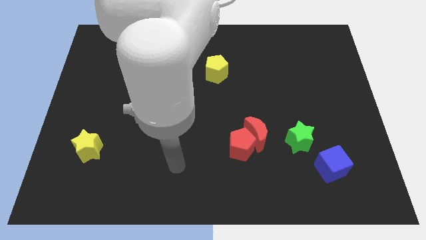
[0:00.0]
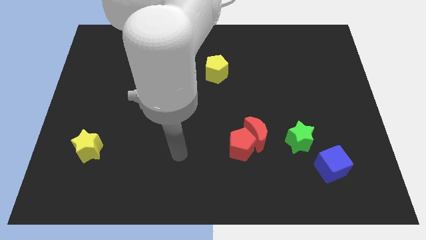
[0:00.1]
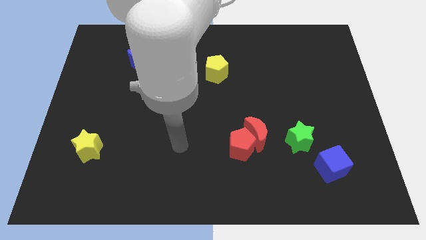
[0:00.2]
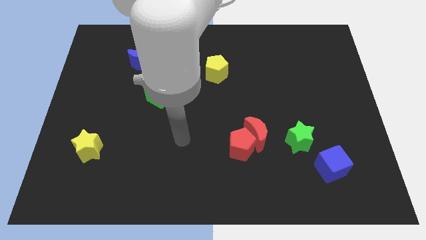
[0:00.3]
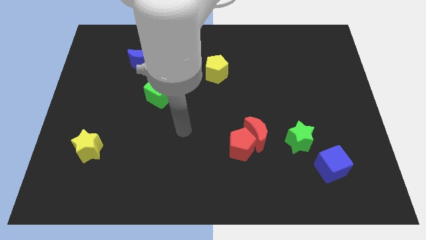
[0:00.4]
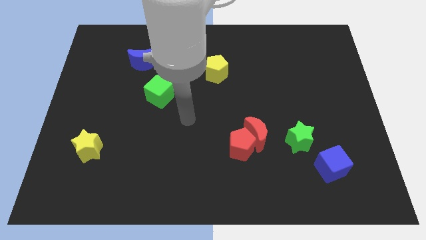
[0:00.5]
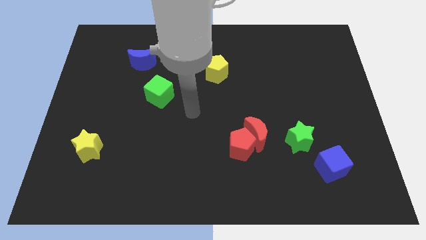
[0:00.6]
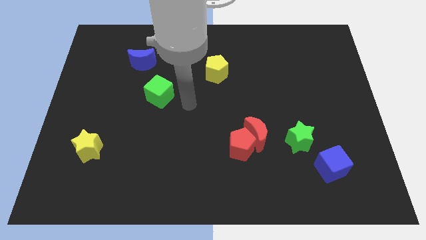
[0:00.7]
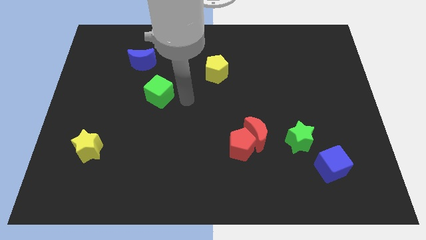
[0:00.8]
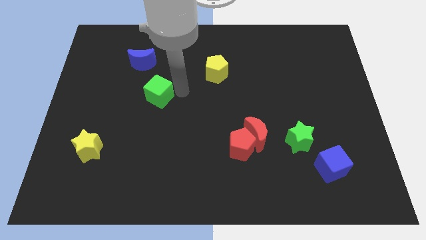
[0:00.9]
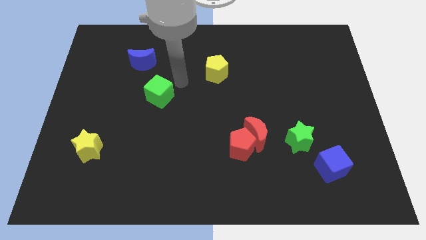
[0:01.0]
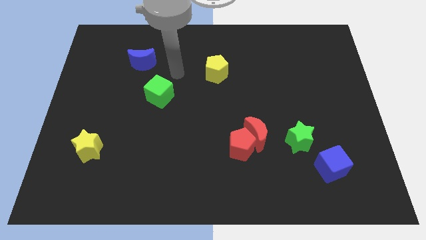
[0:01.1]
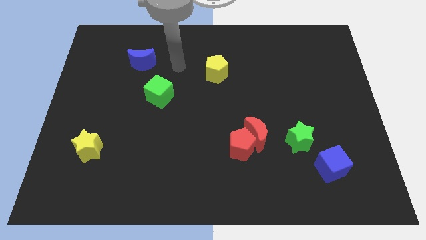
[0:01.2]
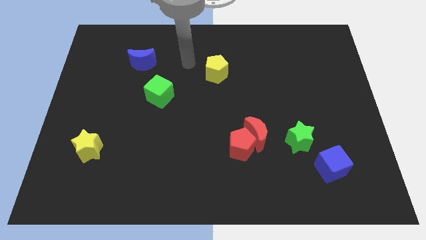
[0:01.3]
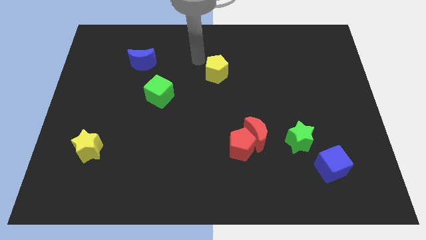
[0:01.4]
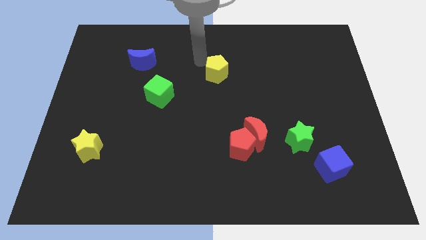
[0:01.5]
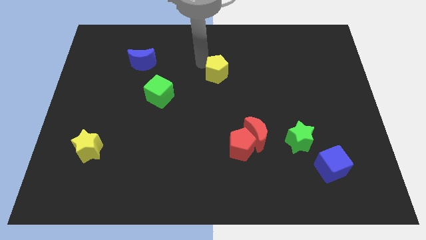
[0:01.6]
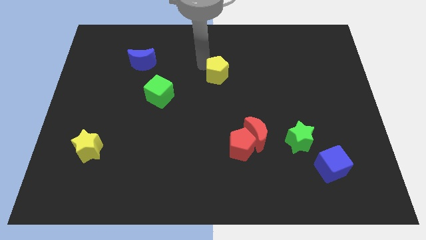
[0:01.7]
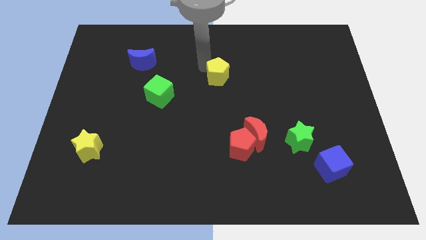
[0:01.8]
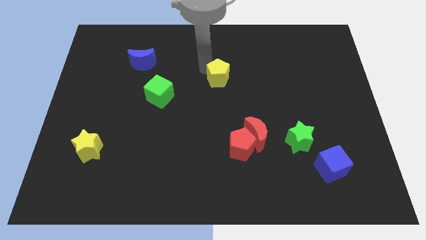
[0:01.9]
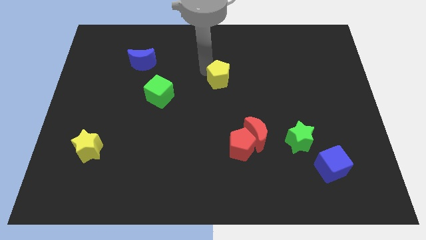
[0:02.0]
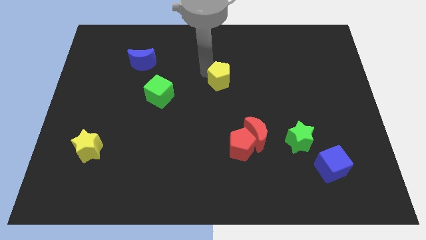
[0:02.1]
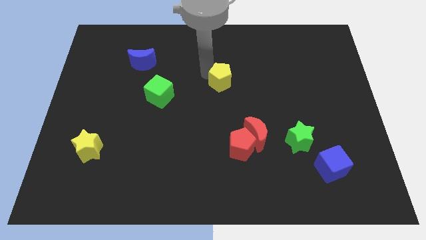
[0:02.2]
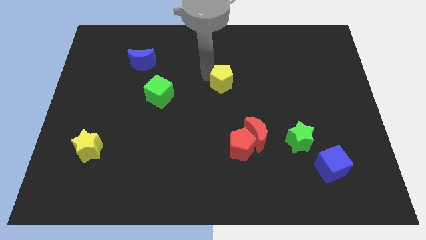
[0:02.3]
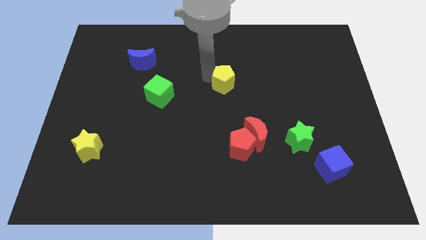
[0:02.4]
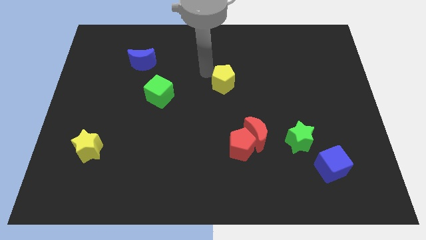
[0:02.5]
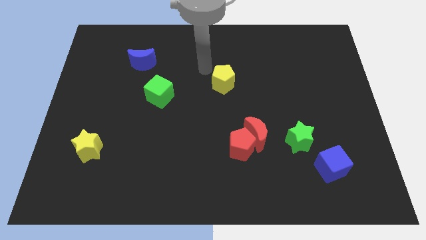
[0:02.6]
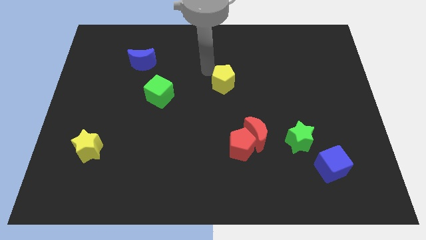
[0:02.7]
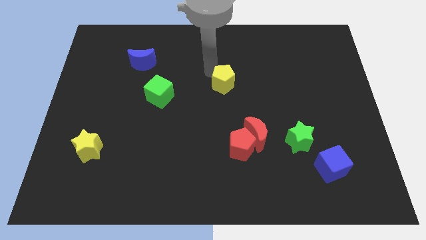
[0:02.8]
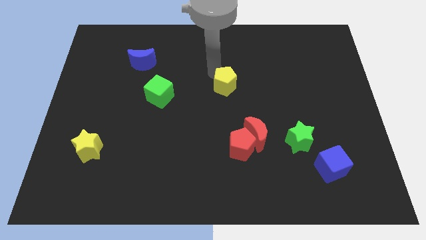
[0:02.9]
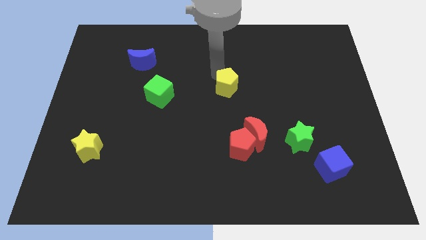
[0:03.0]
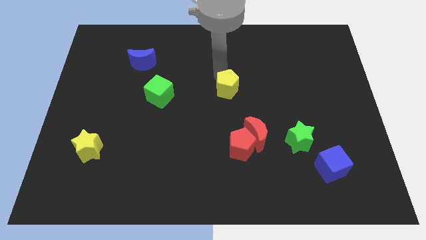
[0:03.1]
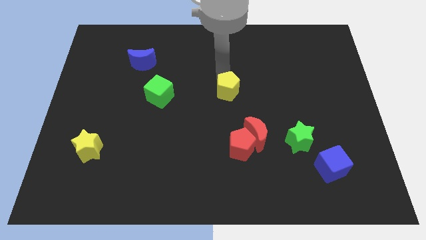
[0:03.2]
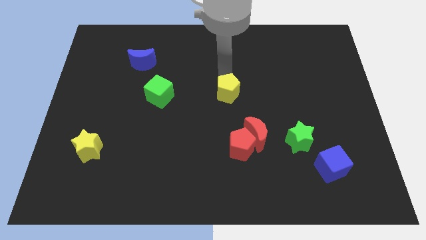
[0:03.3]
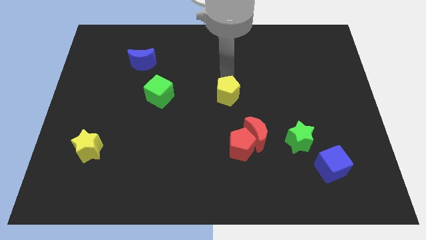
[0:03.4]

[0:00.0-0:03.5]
move the yellow pentagon slightly down and then to the right

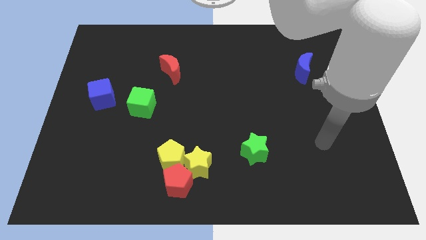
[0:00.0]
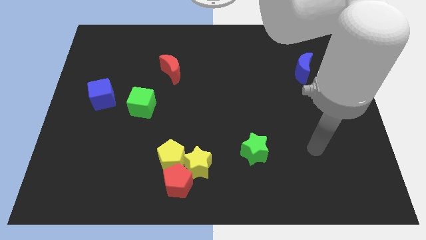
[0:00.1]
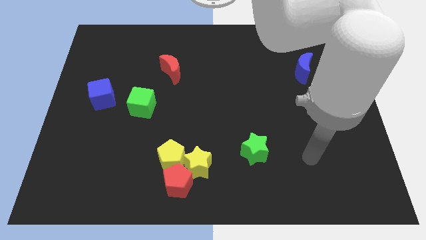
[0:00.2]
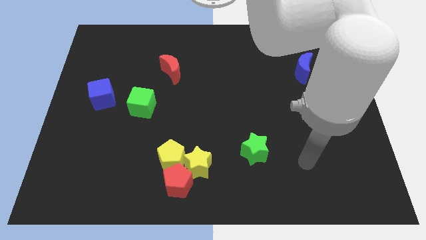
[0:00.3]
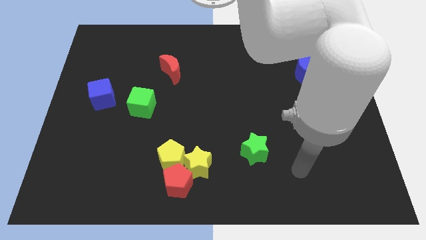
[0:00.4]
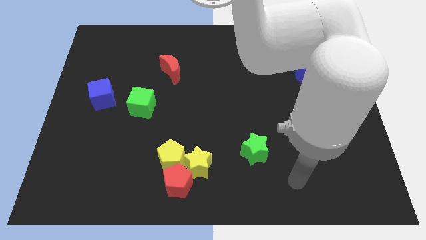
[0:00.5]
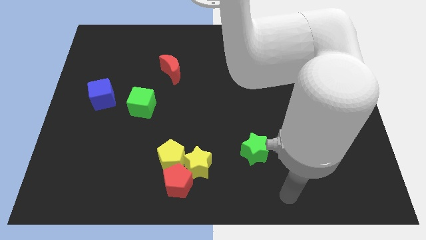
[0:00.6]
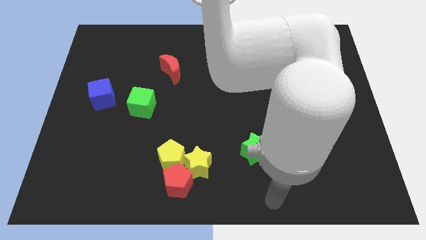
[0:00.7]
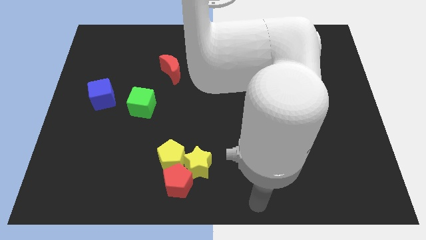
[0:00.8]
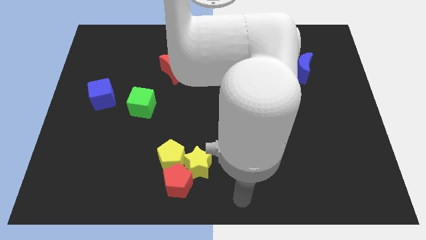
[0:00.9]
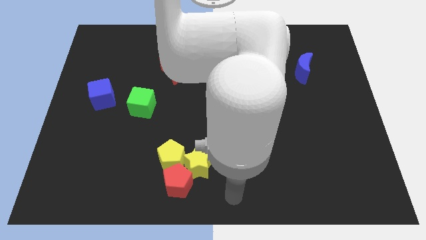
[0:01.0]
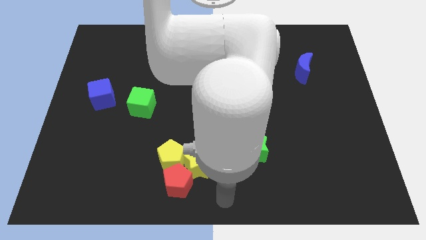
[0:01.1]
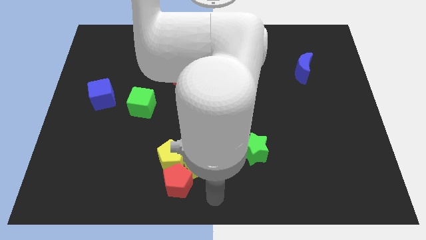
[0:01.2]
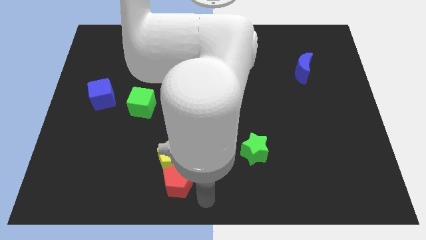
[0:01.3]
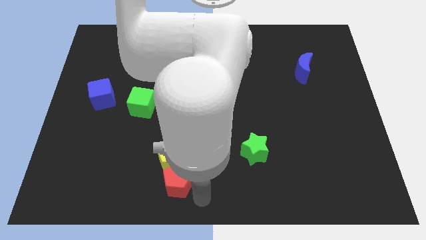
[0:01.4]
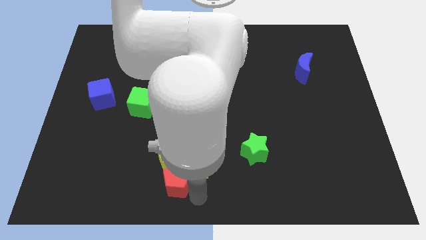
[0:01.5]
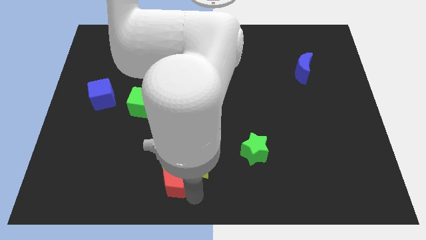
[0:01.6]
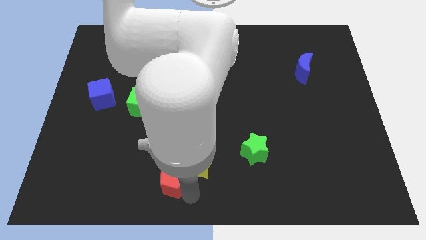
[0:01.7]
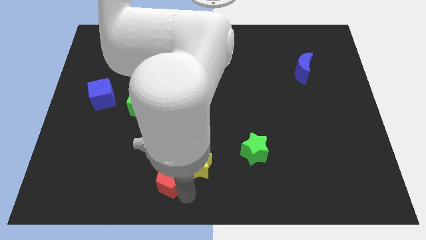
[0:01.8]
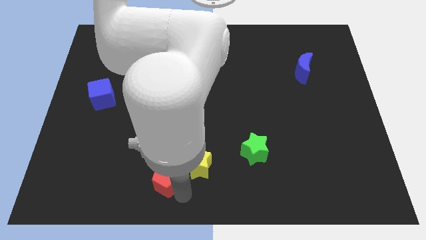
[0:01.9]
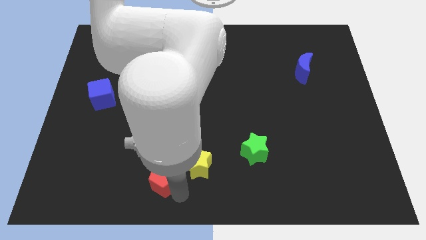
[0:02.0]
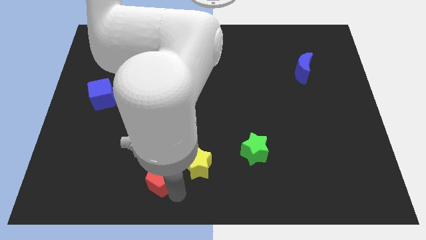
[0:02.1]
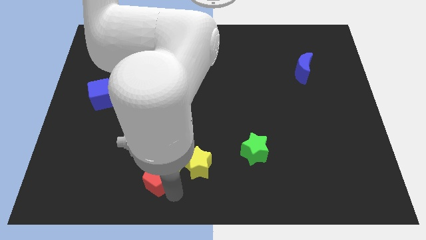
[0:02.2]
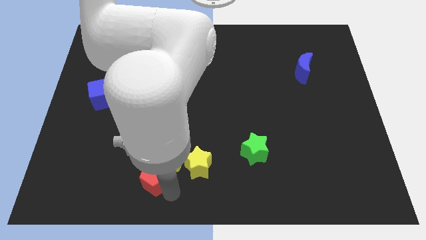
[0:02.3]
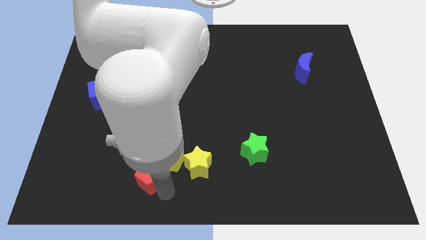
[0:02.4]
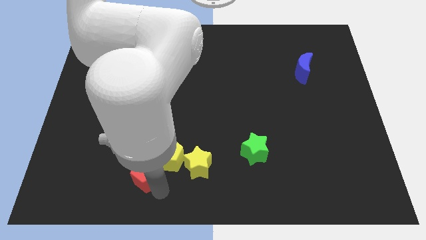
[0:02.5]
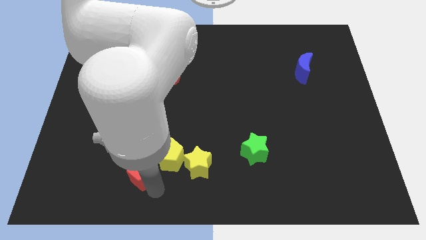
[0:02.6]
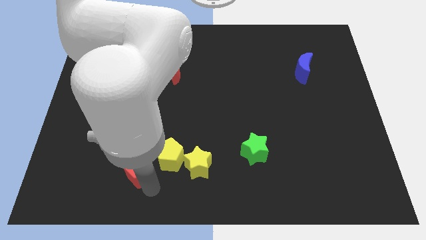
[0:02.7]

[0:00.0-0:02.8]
slightly slide the red pentagon diagonally up and to the left

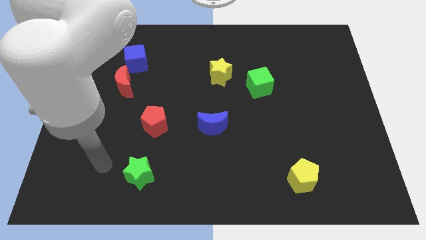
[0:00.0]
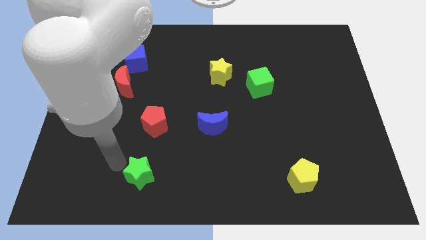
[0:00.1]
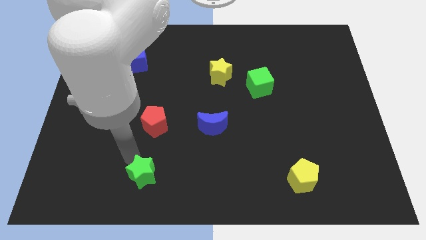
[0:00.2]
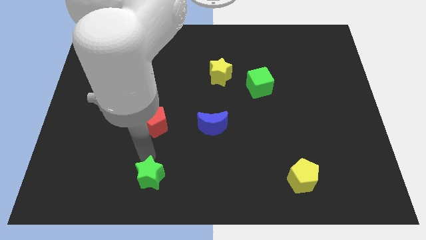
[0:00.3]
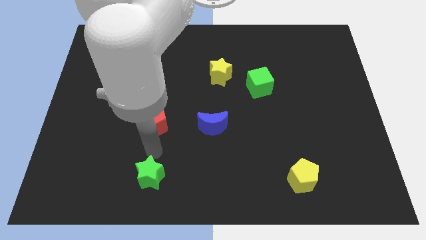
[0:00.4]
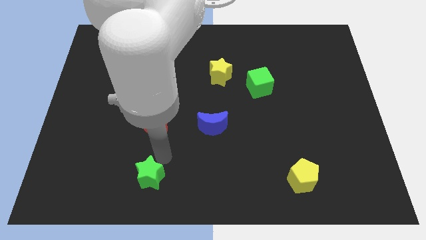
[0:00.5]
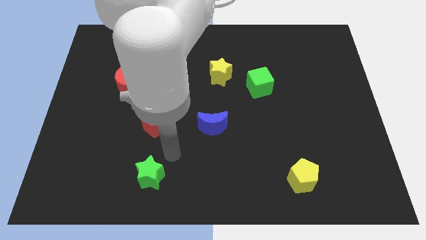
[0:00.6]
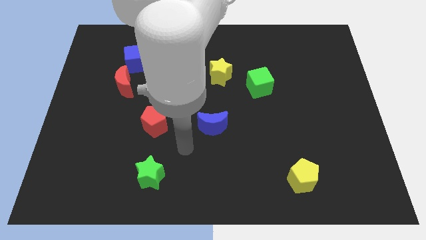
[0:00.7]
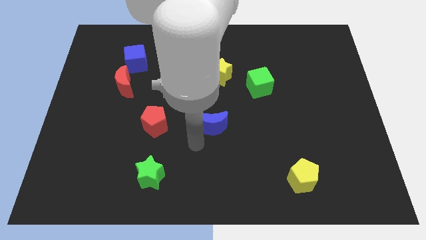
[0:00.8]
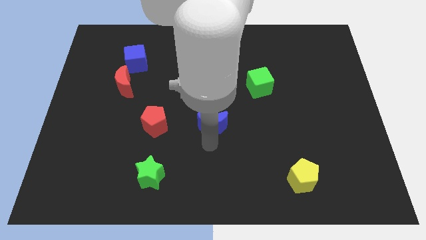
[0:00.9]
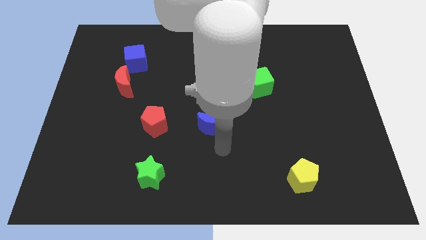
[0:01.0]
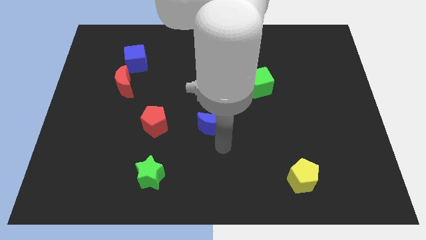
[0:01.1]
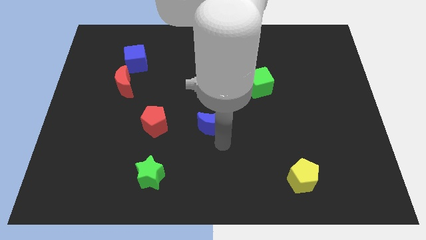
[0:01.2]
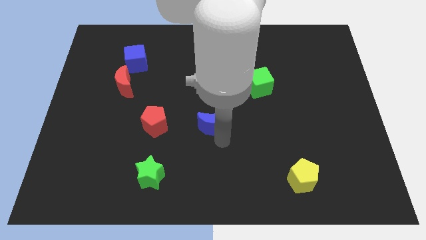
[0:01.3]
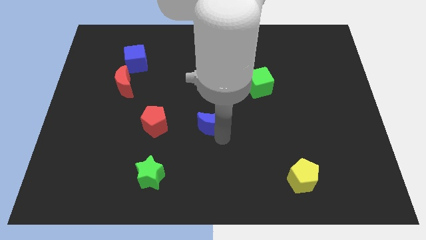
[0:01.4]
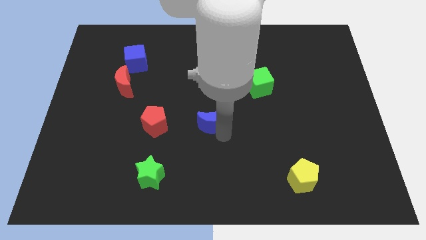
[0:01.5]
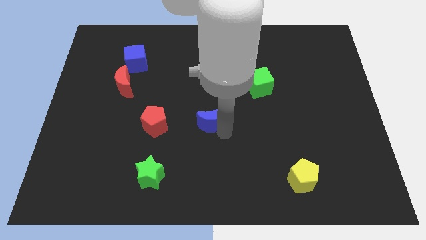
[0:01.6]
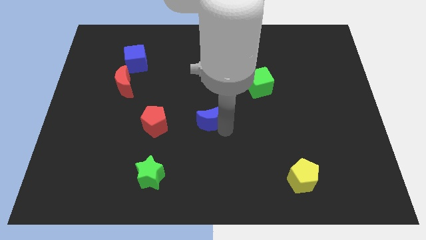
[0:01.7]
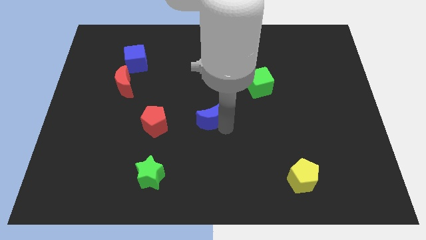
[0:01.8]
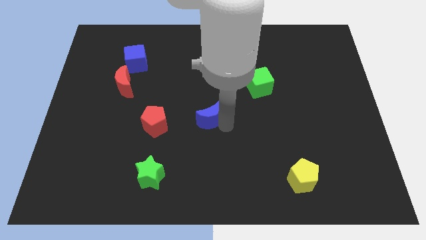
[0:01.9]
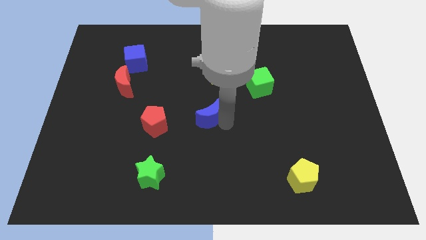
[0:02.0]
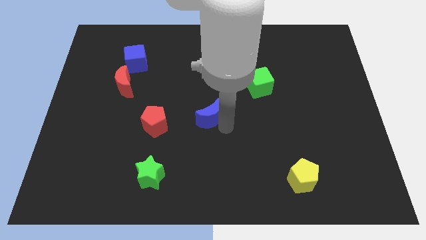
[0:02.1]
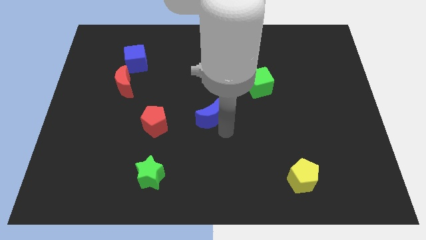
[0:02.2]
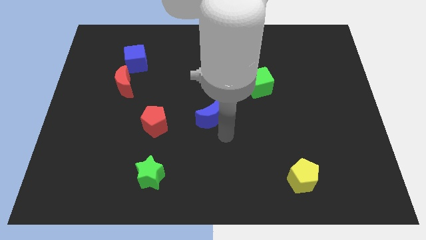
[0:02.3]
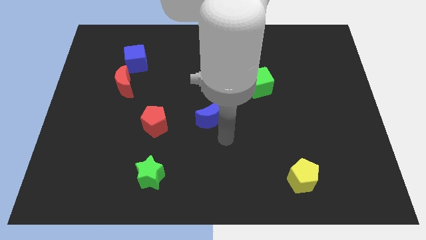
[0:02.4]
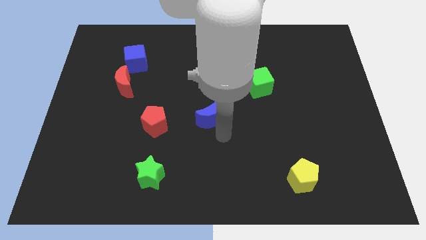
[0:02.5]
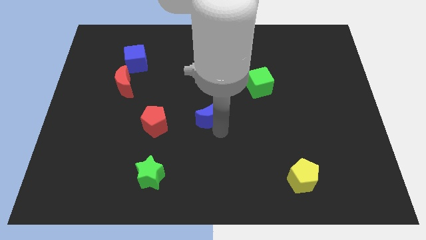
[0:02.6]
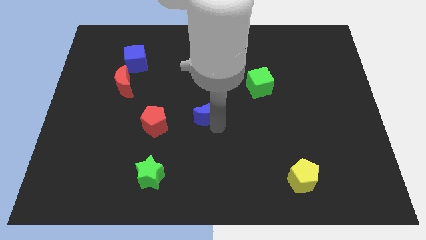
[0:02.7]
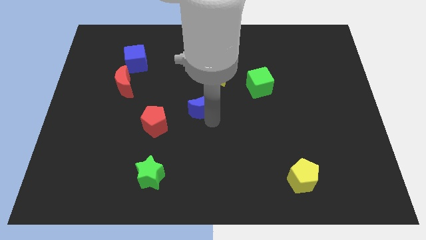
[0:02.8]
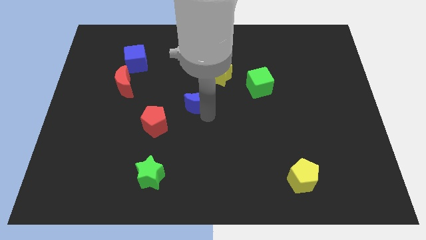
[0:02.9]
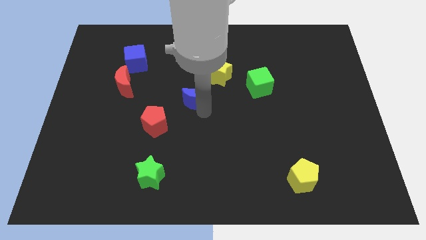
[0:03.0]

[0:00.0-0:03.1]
push the blue moon up a little
